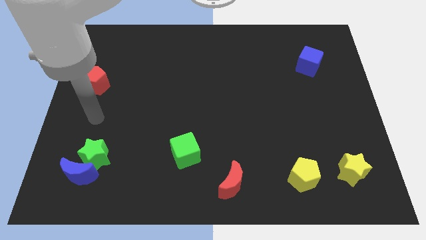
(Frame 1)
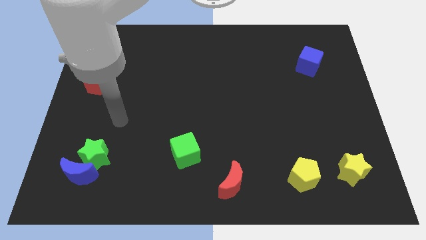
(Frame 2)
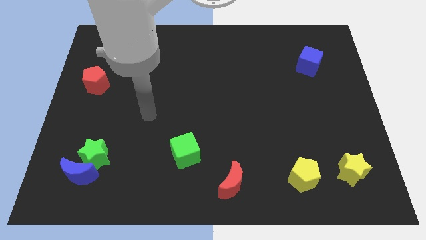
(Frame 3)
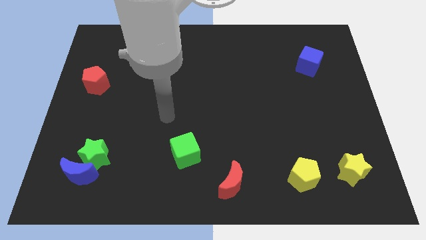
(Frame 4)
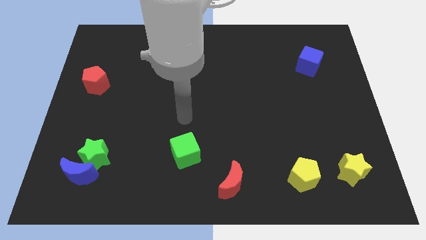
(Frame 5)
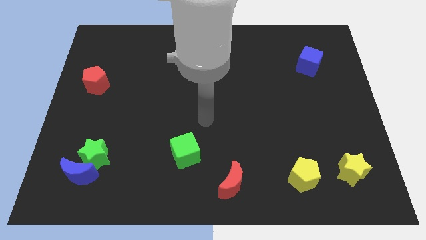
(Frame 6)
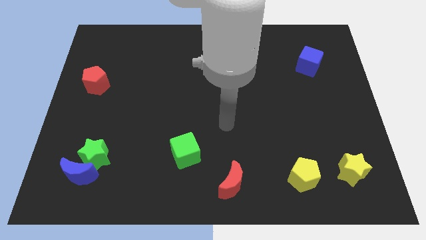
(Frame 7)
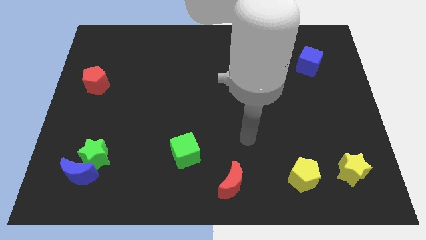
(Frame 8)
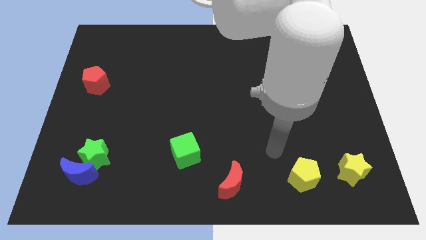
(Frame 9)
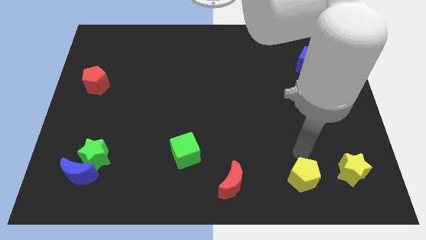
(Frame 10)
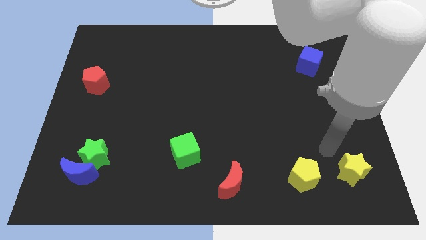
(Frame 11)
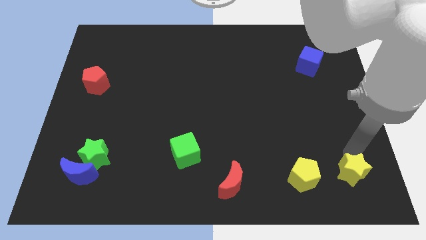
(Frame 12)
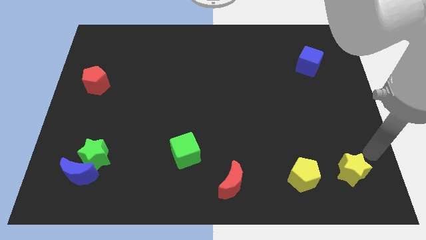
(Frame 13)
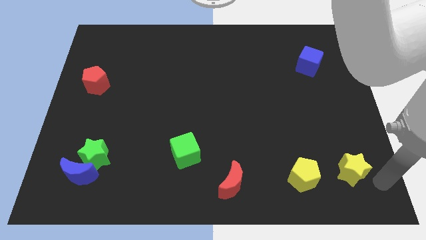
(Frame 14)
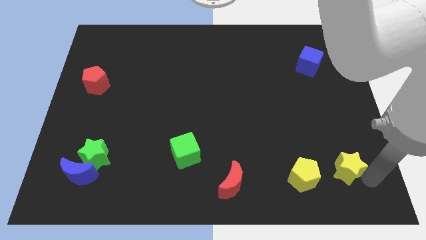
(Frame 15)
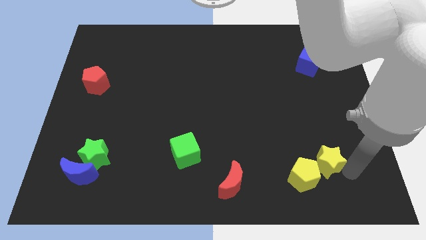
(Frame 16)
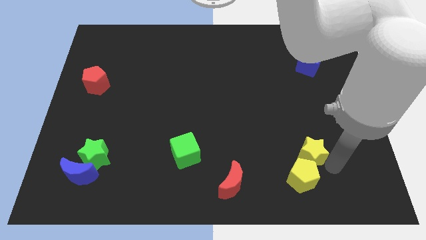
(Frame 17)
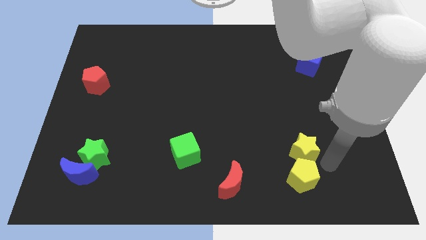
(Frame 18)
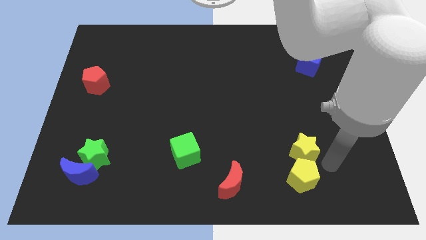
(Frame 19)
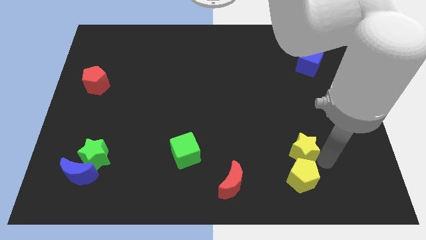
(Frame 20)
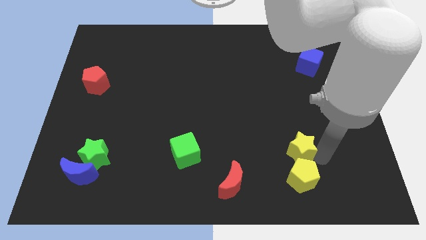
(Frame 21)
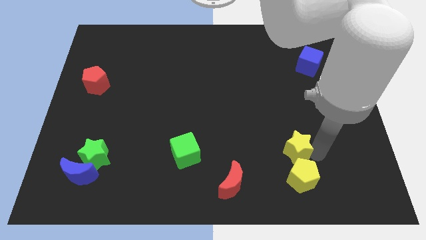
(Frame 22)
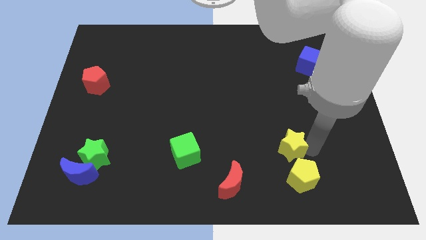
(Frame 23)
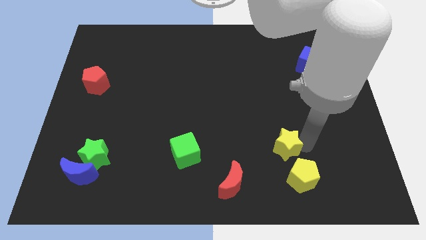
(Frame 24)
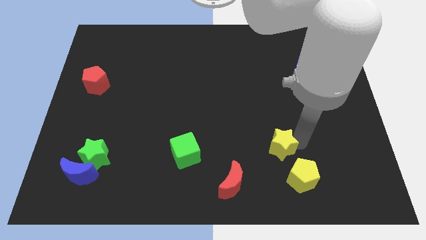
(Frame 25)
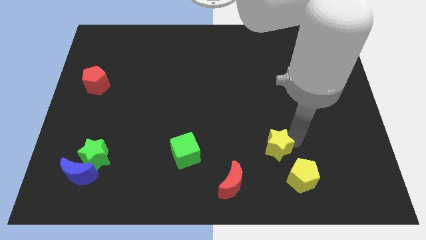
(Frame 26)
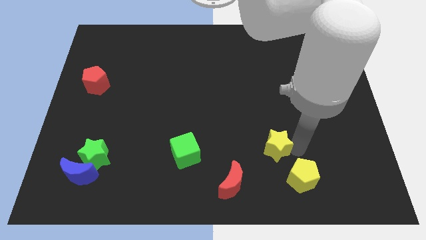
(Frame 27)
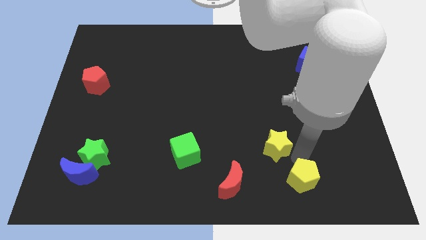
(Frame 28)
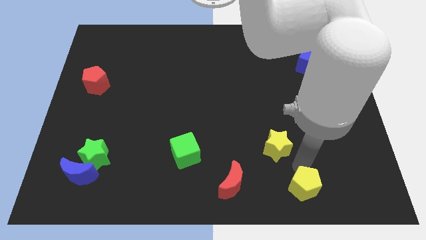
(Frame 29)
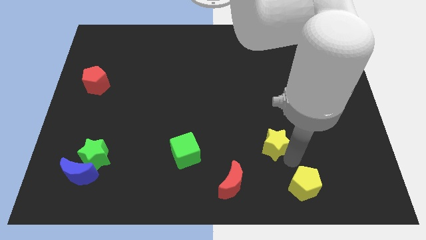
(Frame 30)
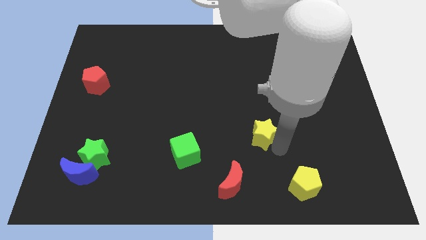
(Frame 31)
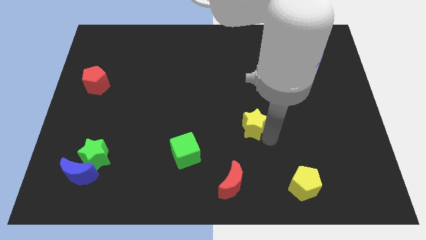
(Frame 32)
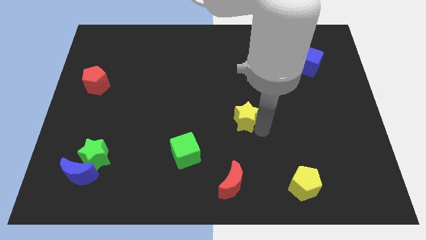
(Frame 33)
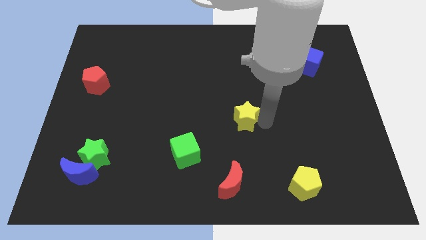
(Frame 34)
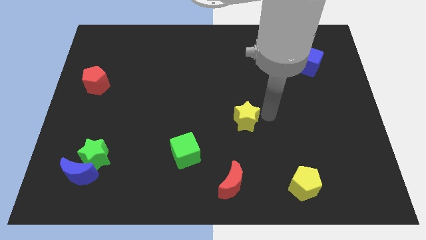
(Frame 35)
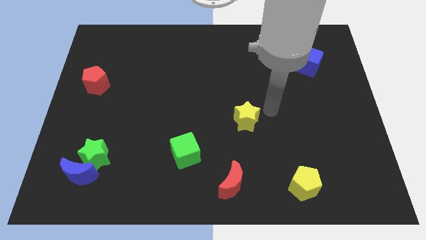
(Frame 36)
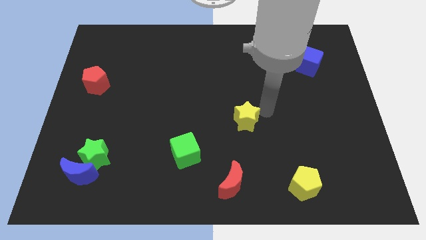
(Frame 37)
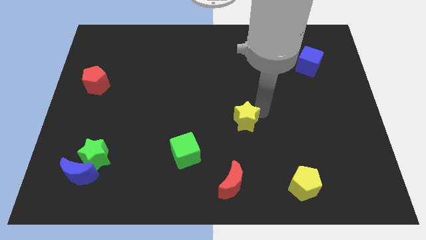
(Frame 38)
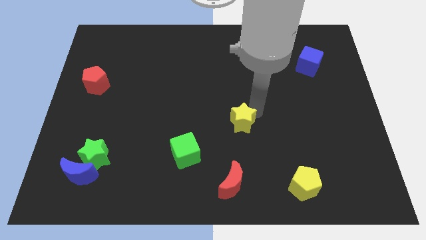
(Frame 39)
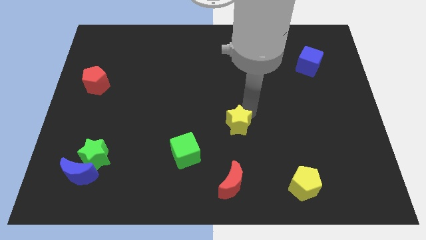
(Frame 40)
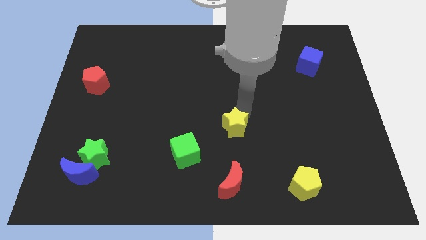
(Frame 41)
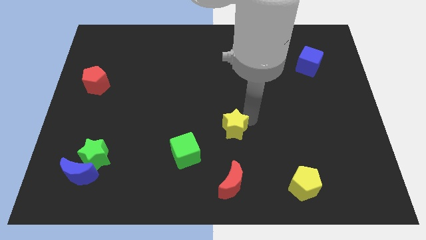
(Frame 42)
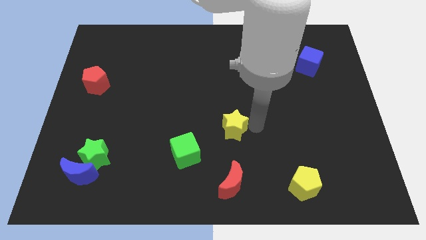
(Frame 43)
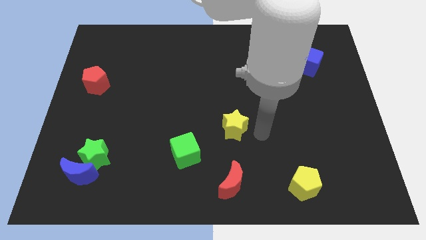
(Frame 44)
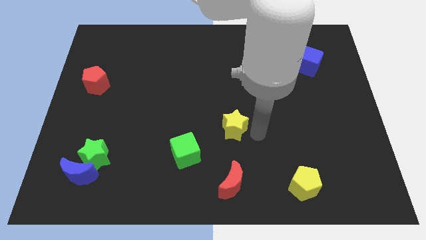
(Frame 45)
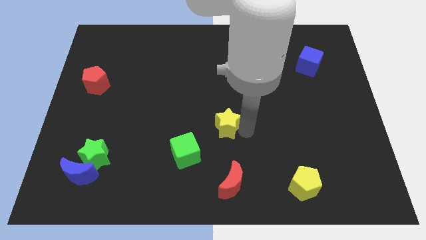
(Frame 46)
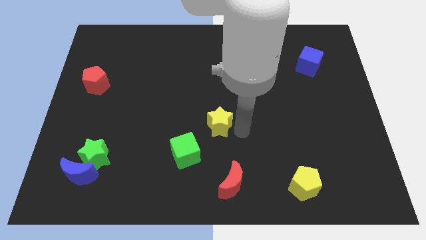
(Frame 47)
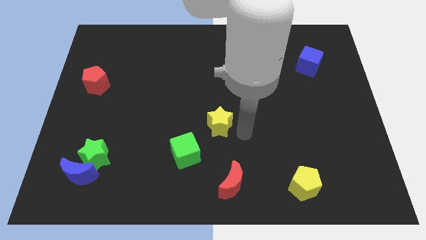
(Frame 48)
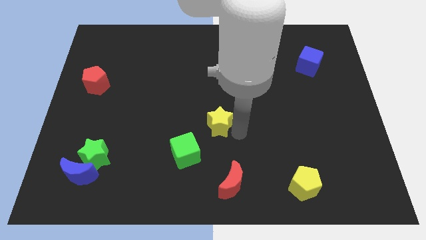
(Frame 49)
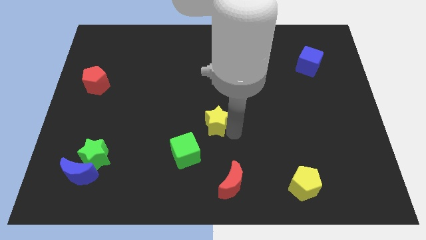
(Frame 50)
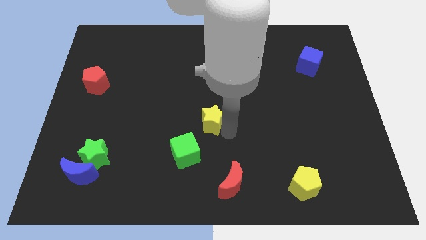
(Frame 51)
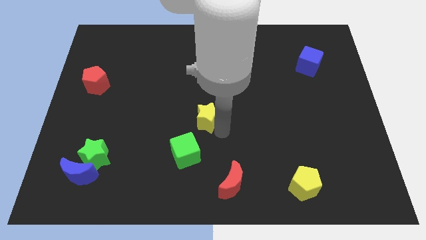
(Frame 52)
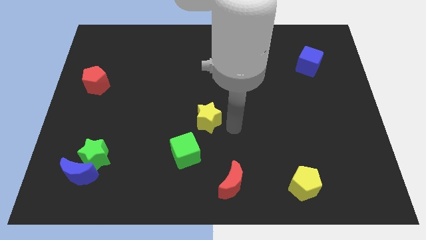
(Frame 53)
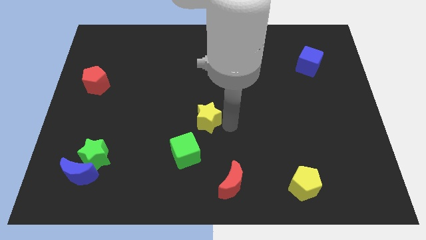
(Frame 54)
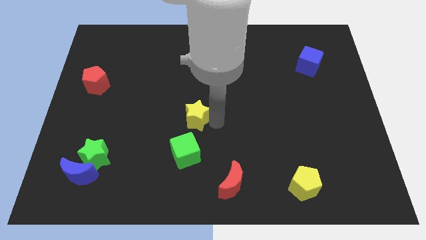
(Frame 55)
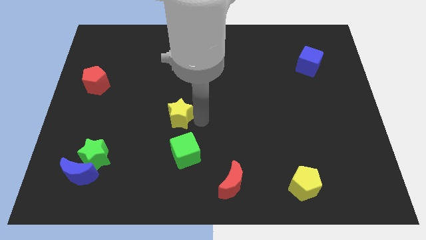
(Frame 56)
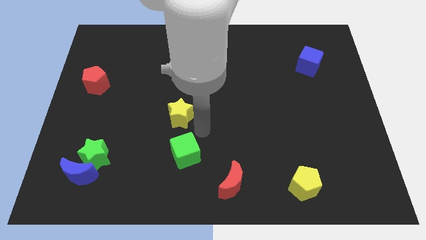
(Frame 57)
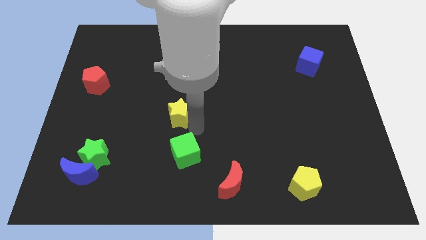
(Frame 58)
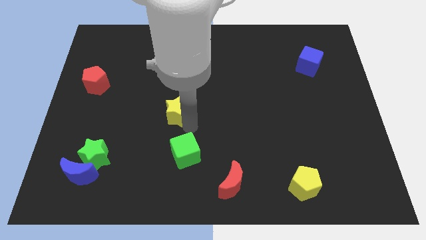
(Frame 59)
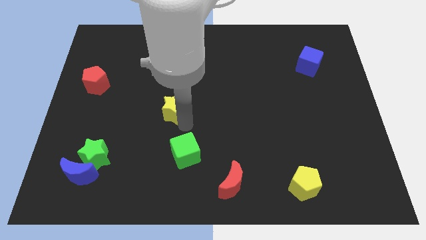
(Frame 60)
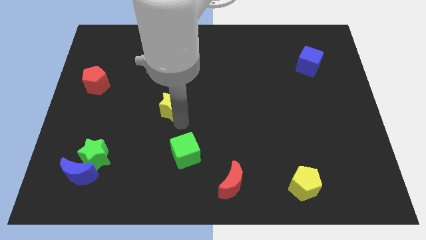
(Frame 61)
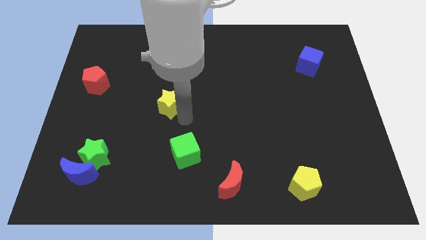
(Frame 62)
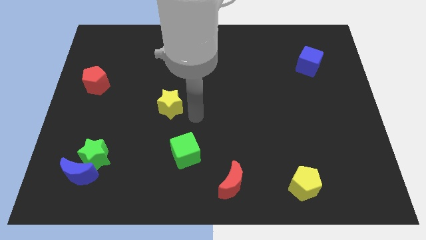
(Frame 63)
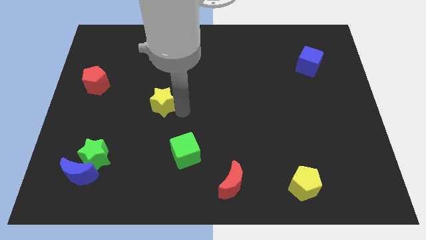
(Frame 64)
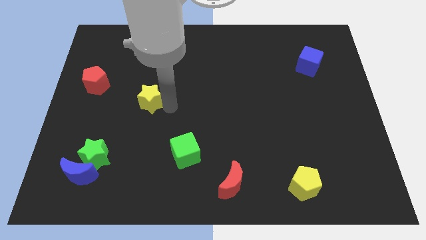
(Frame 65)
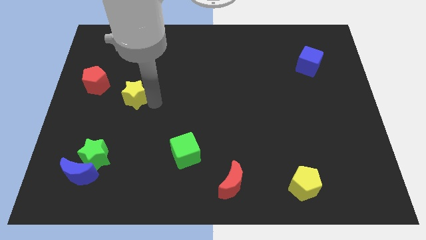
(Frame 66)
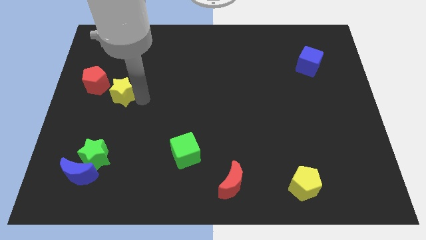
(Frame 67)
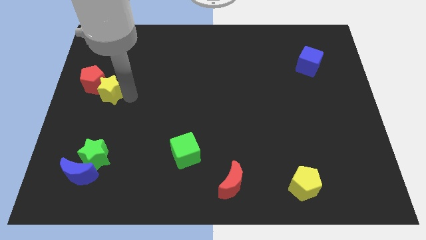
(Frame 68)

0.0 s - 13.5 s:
put the yellow star close to the red pentagon

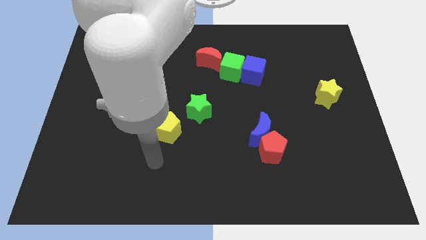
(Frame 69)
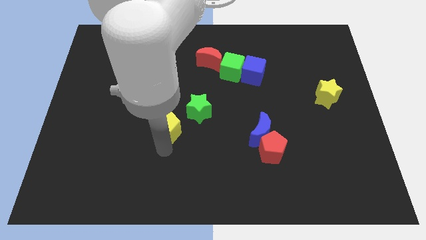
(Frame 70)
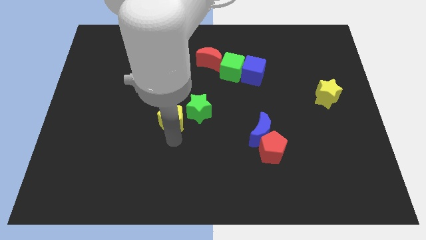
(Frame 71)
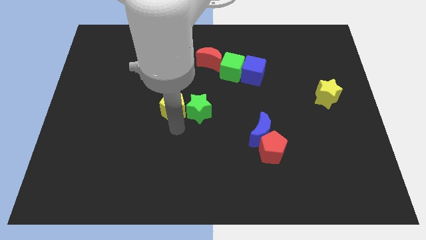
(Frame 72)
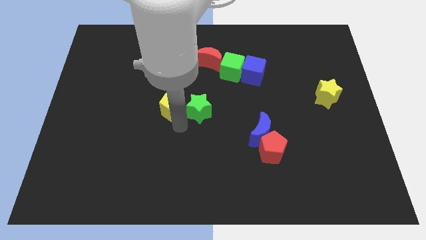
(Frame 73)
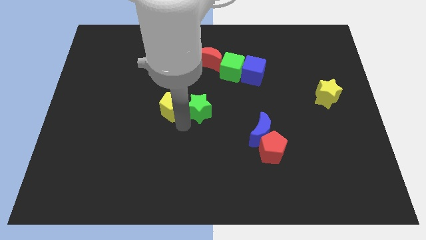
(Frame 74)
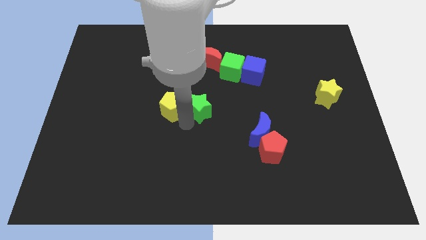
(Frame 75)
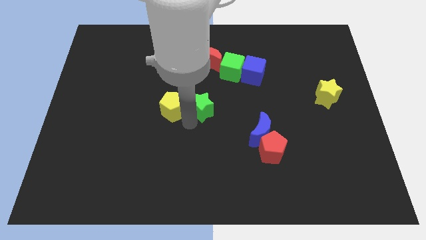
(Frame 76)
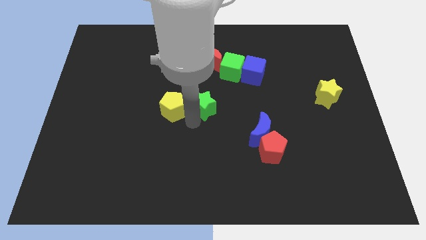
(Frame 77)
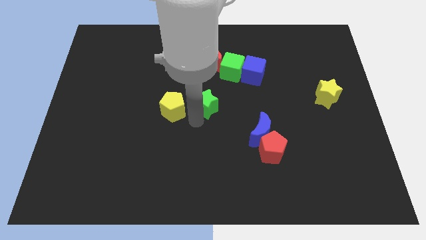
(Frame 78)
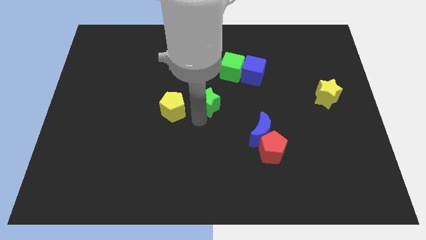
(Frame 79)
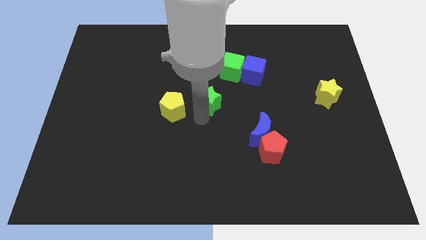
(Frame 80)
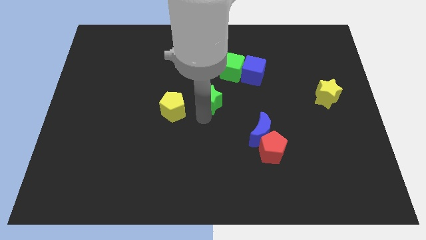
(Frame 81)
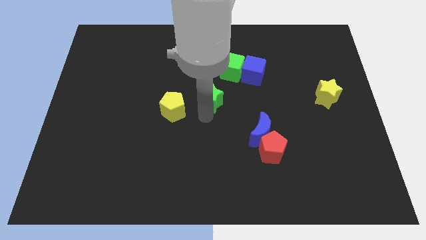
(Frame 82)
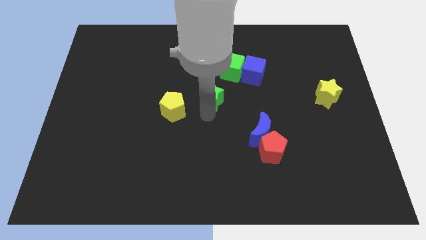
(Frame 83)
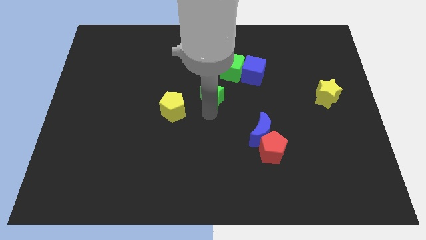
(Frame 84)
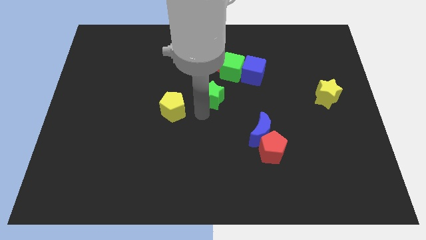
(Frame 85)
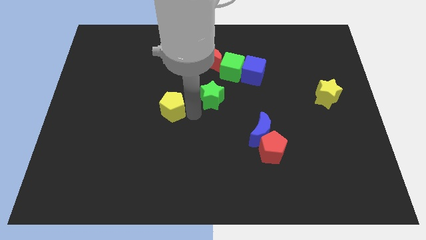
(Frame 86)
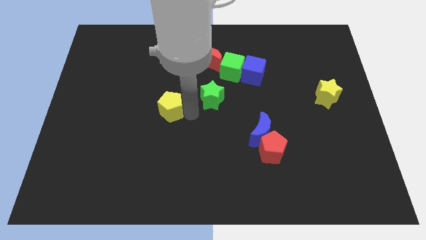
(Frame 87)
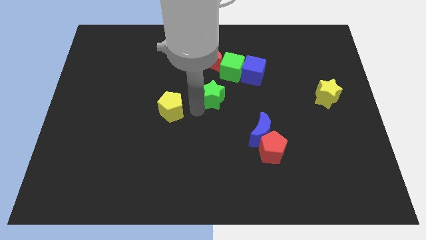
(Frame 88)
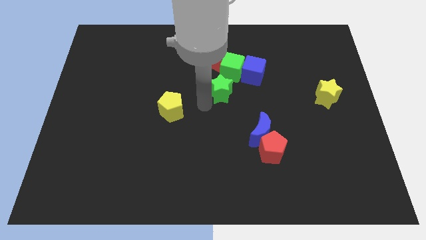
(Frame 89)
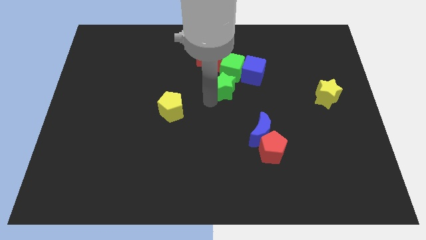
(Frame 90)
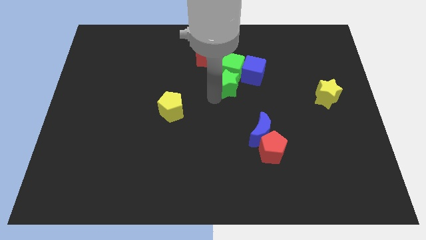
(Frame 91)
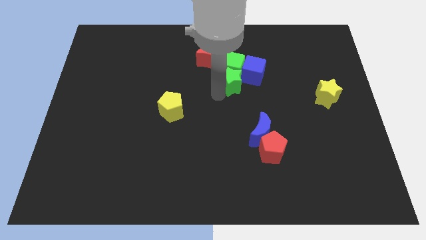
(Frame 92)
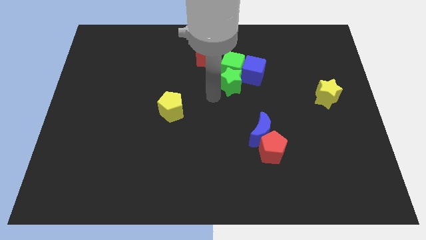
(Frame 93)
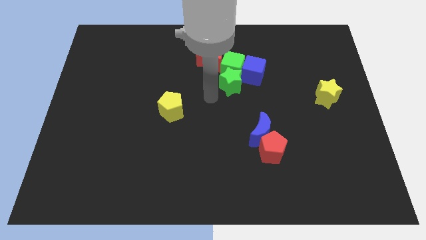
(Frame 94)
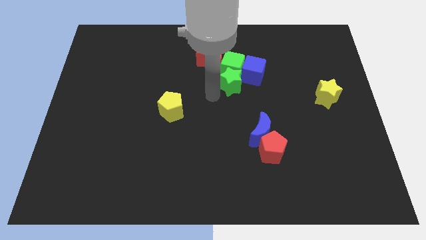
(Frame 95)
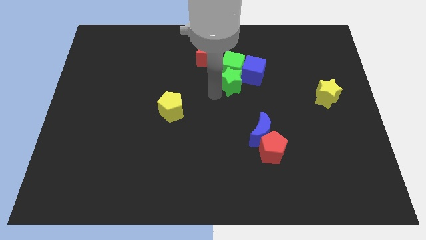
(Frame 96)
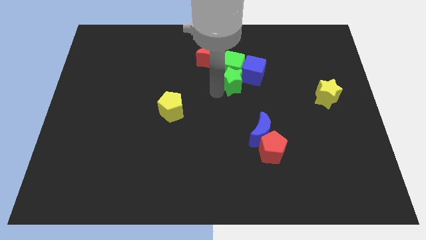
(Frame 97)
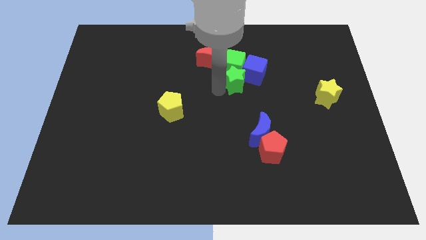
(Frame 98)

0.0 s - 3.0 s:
put the green star next to the blue cube
